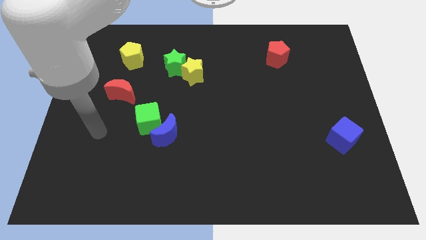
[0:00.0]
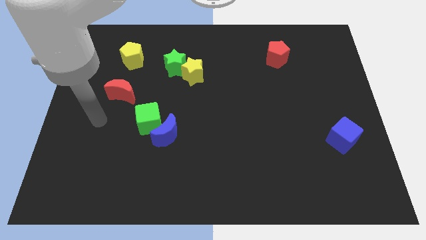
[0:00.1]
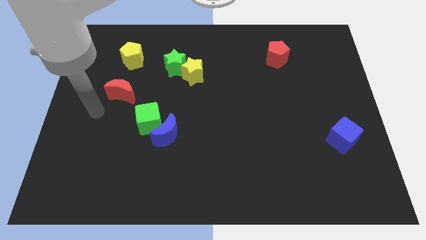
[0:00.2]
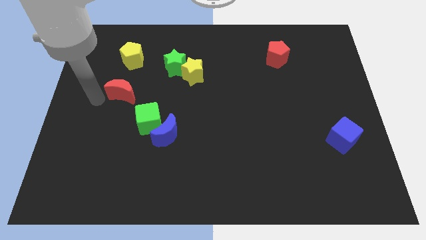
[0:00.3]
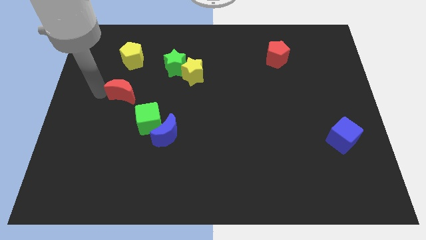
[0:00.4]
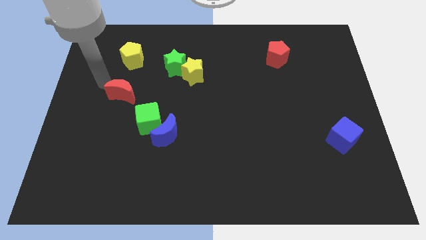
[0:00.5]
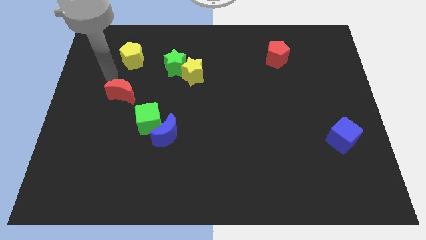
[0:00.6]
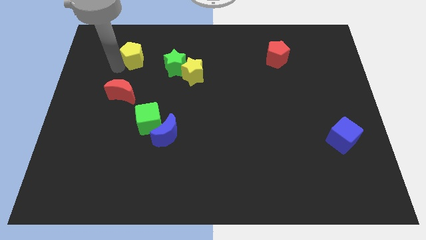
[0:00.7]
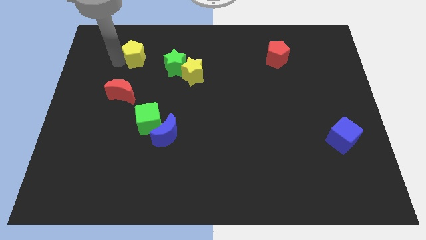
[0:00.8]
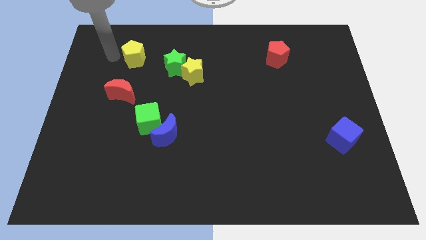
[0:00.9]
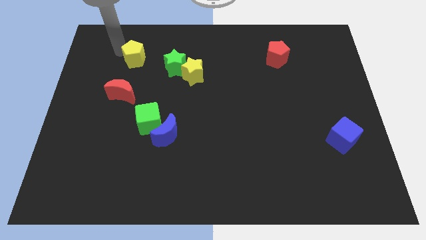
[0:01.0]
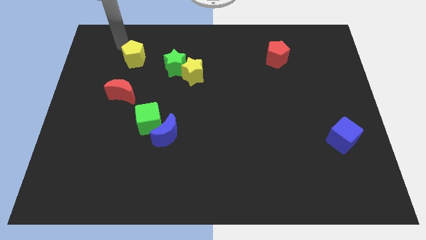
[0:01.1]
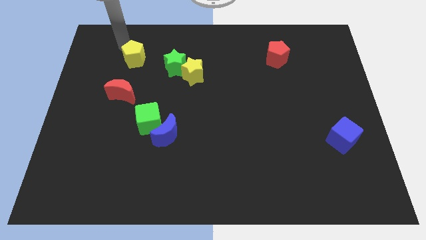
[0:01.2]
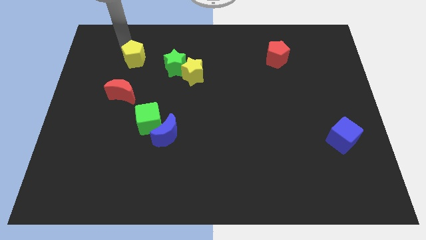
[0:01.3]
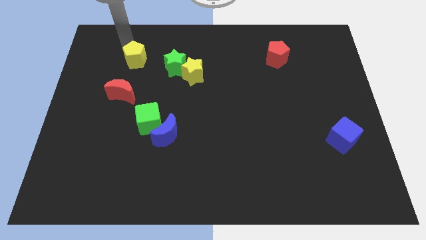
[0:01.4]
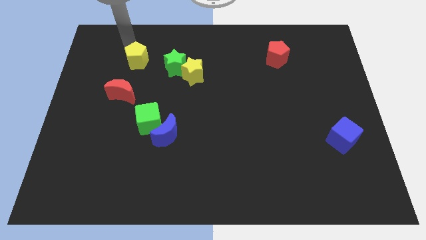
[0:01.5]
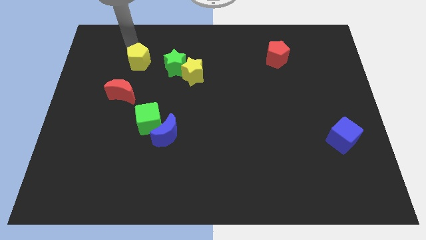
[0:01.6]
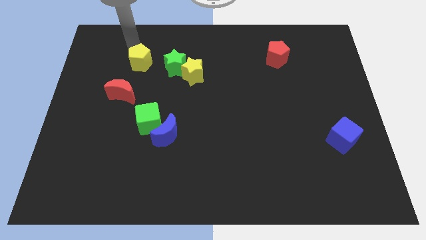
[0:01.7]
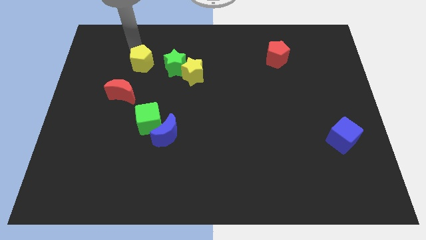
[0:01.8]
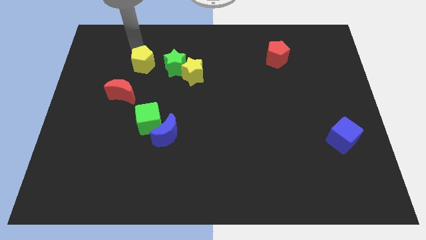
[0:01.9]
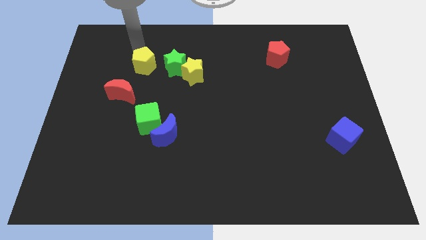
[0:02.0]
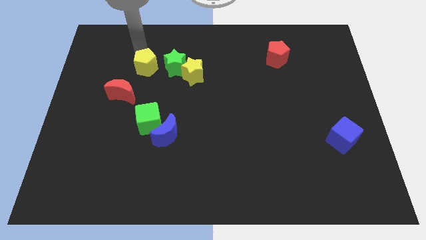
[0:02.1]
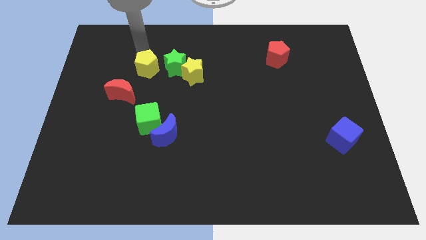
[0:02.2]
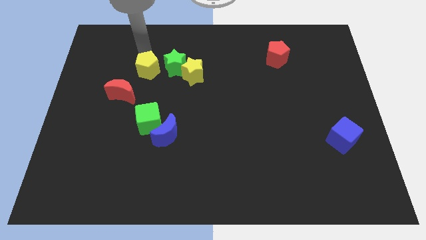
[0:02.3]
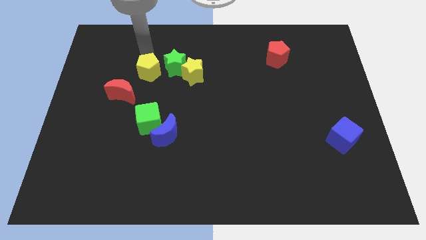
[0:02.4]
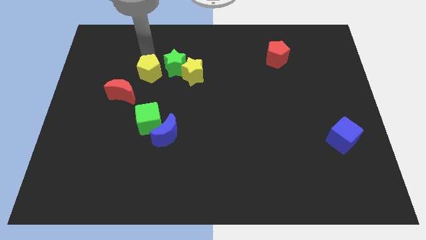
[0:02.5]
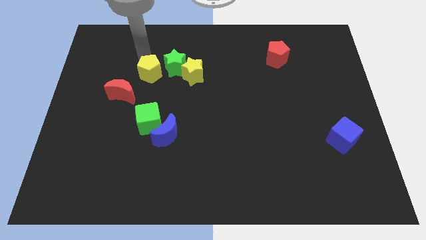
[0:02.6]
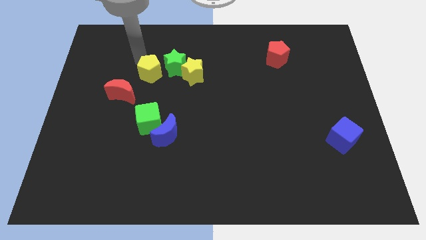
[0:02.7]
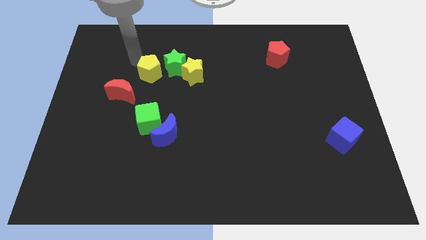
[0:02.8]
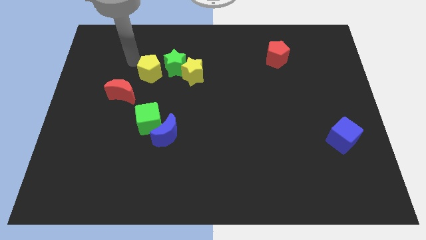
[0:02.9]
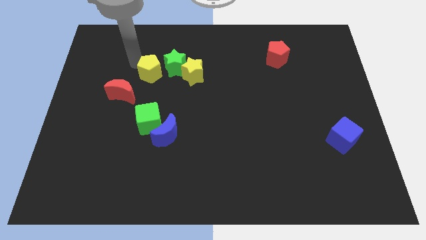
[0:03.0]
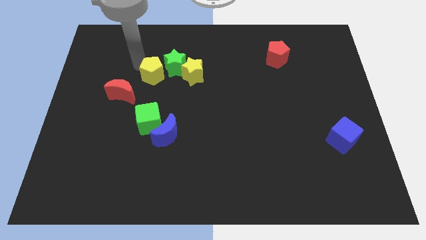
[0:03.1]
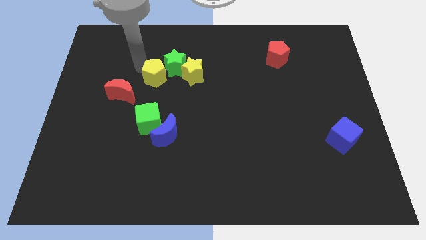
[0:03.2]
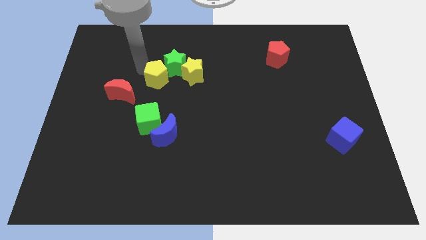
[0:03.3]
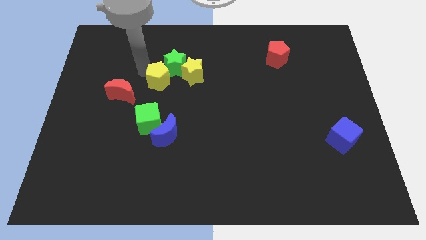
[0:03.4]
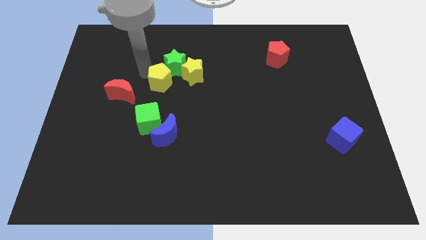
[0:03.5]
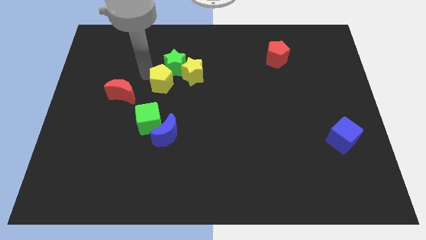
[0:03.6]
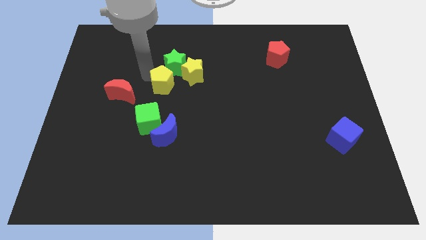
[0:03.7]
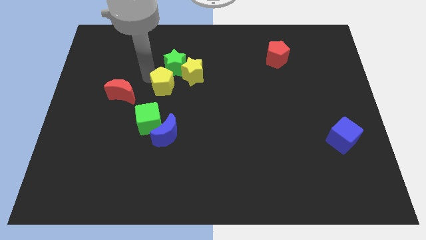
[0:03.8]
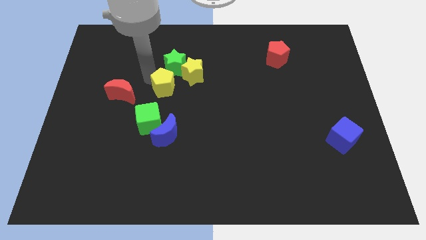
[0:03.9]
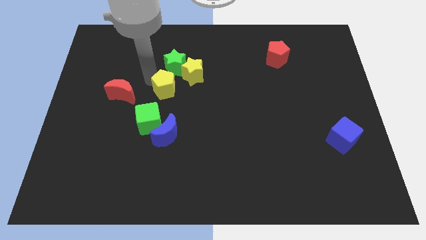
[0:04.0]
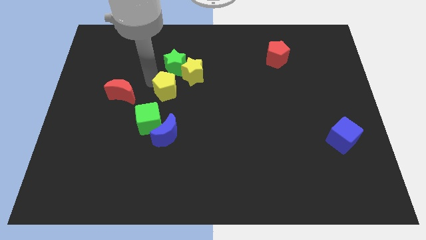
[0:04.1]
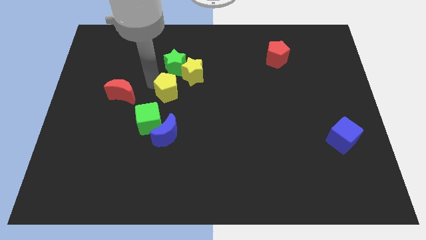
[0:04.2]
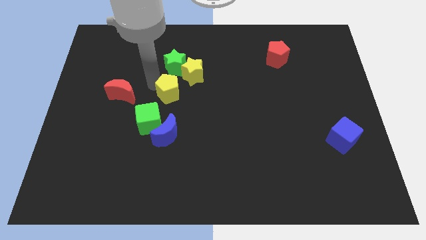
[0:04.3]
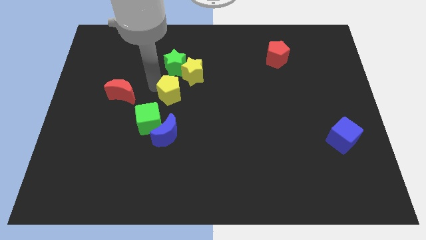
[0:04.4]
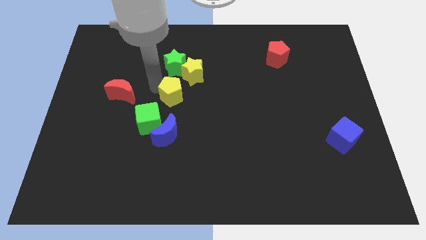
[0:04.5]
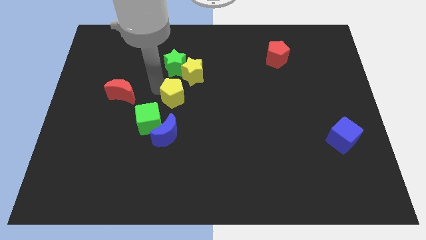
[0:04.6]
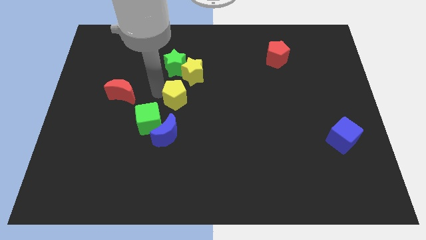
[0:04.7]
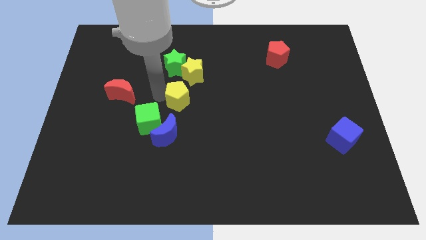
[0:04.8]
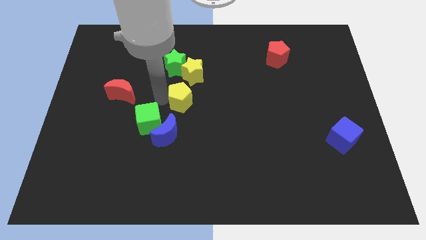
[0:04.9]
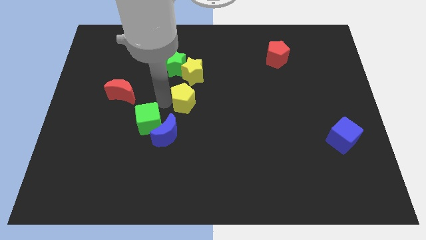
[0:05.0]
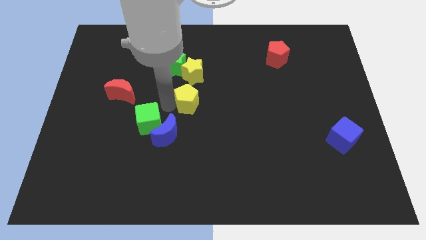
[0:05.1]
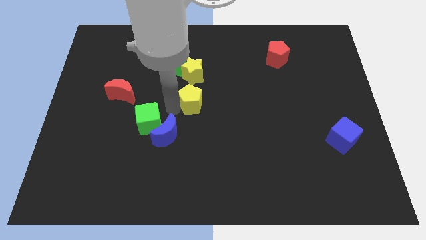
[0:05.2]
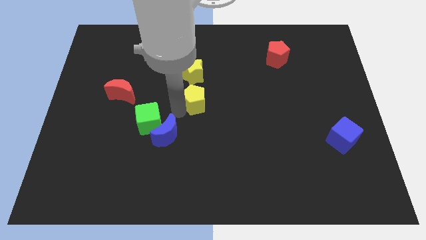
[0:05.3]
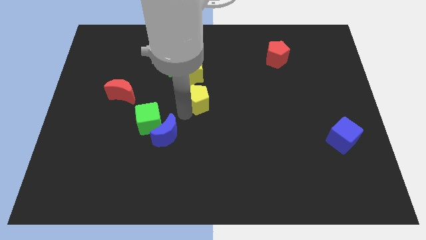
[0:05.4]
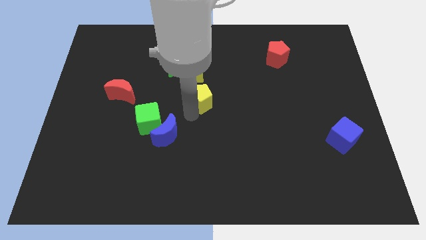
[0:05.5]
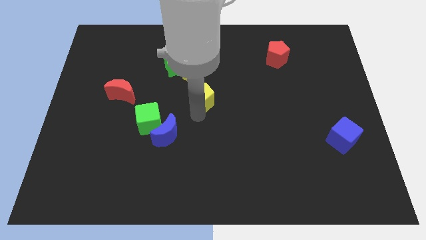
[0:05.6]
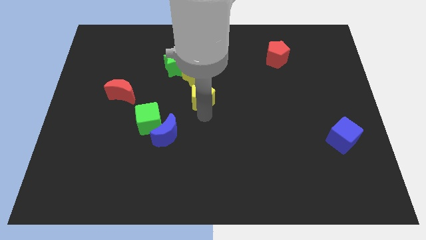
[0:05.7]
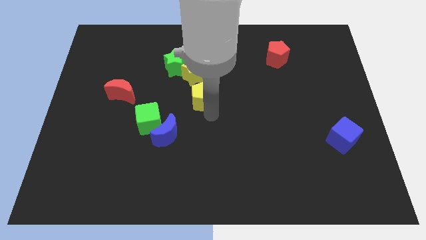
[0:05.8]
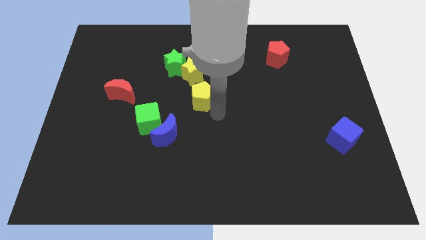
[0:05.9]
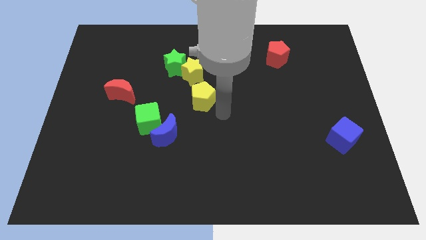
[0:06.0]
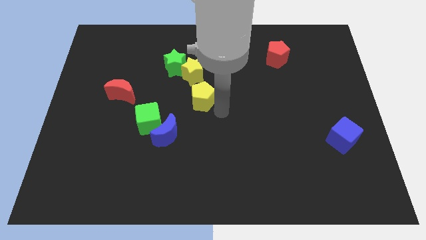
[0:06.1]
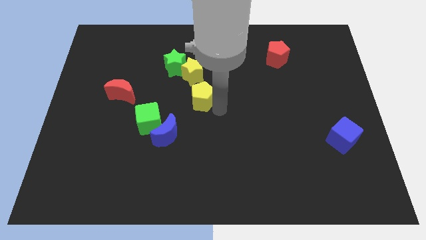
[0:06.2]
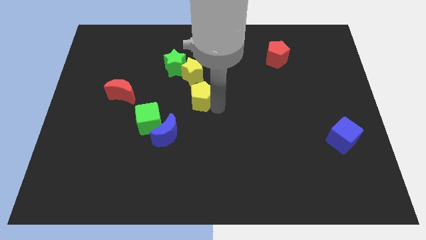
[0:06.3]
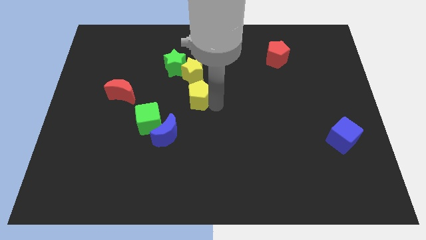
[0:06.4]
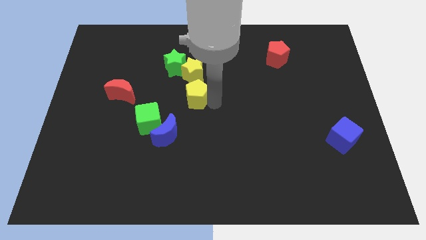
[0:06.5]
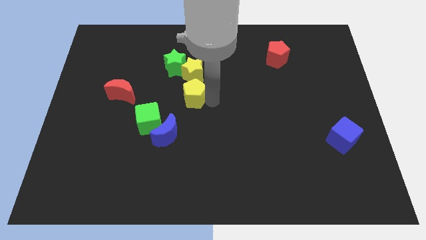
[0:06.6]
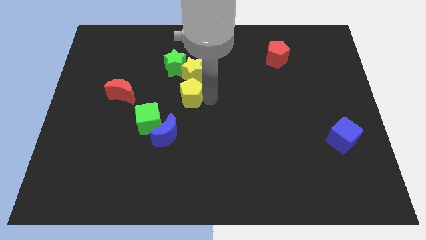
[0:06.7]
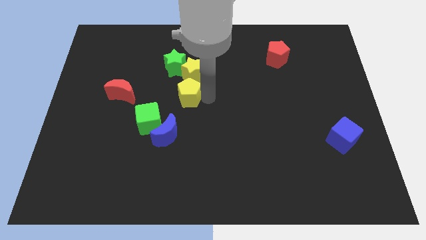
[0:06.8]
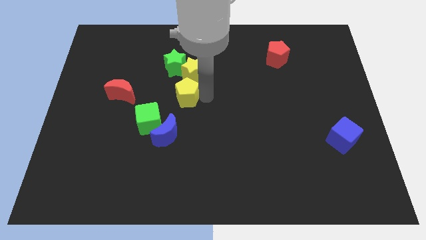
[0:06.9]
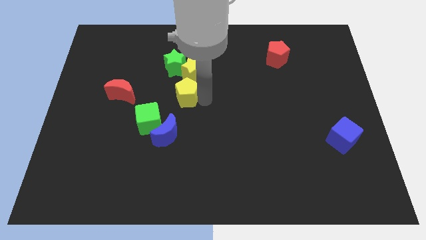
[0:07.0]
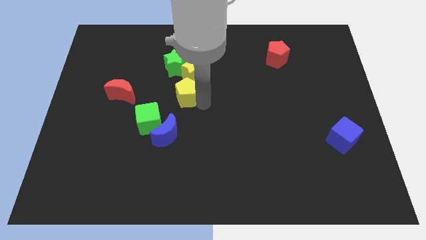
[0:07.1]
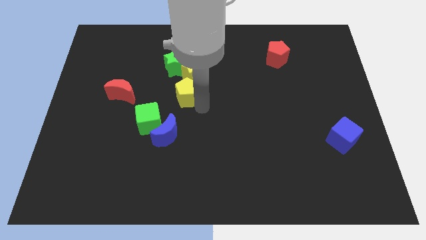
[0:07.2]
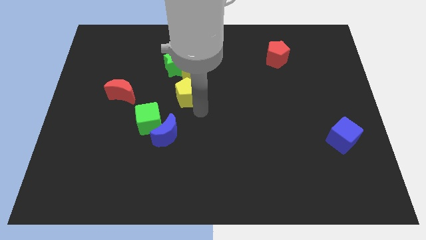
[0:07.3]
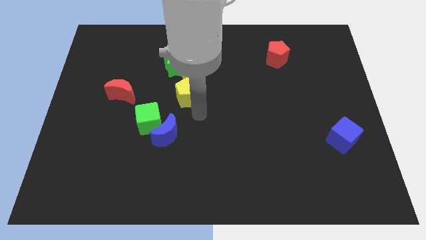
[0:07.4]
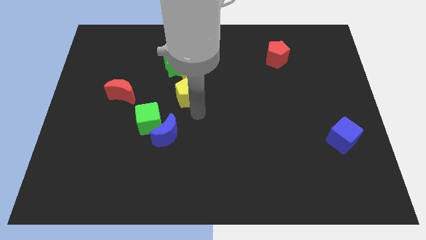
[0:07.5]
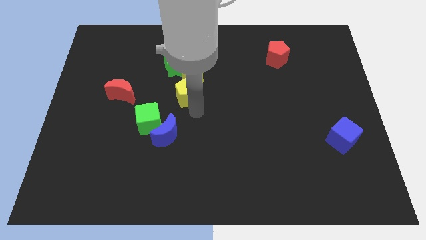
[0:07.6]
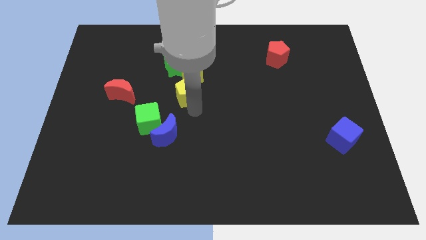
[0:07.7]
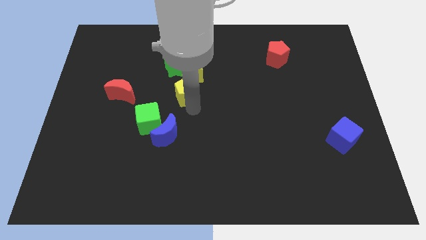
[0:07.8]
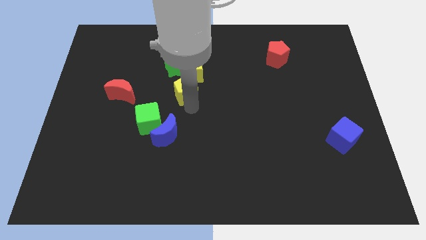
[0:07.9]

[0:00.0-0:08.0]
slide the yellow pentagon close to the yellow star
